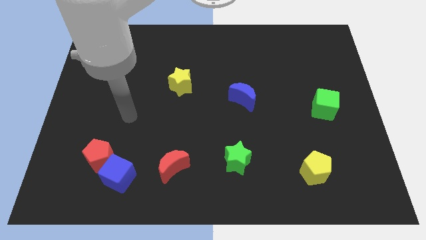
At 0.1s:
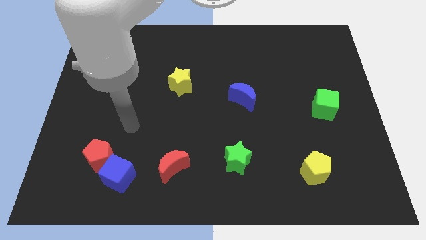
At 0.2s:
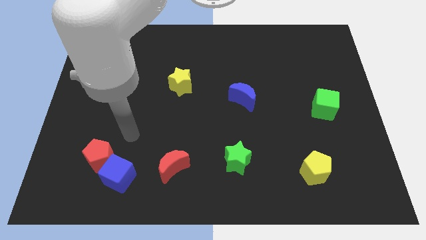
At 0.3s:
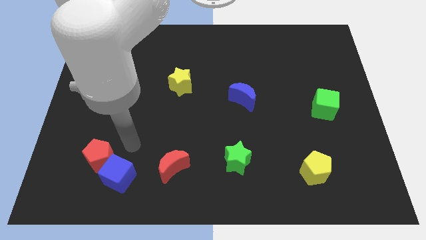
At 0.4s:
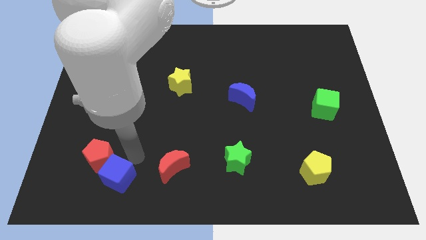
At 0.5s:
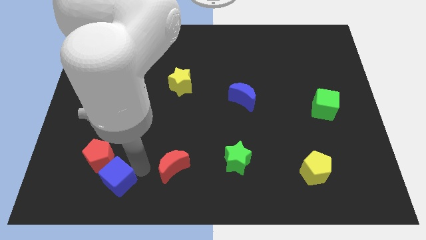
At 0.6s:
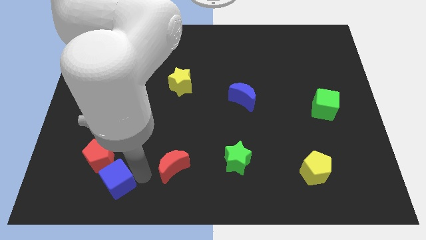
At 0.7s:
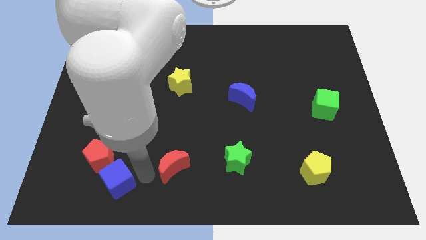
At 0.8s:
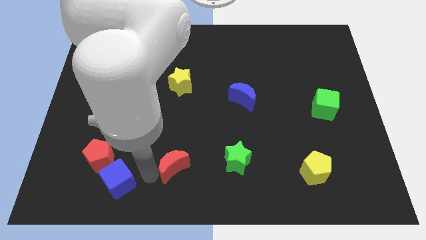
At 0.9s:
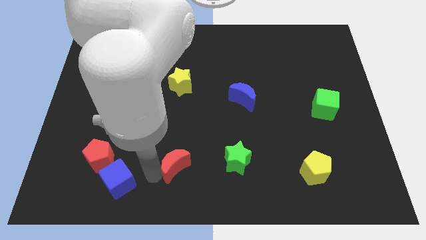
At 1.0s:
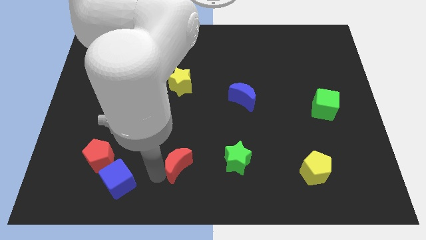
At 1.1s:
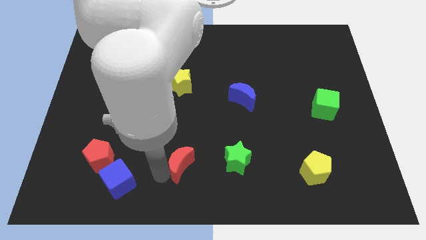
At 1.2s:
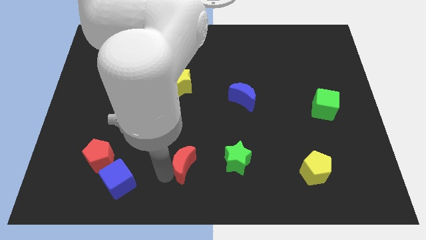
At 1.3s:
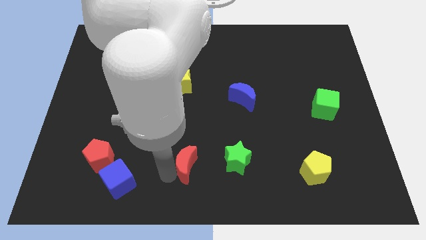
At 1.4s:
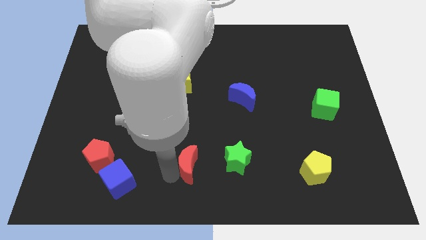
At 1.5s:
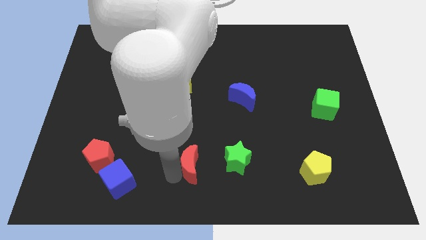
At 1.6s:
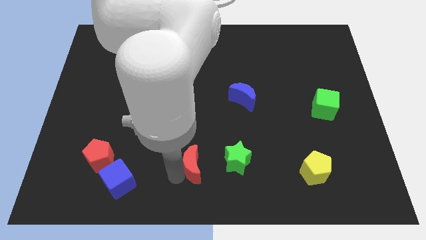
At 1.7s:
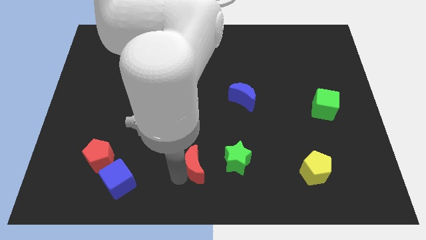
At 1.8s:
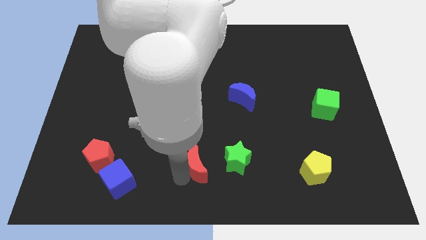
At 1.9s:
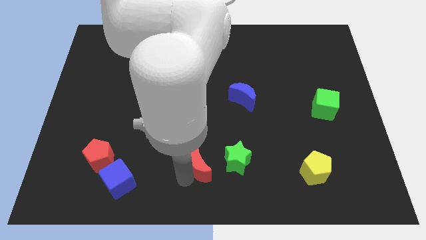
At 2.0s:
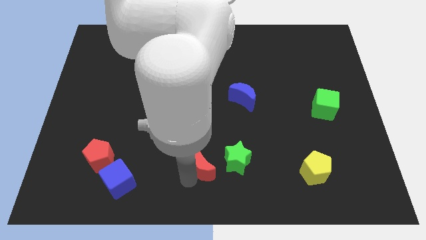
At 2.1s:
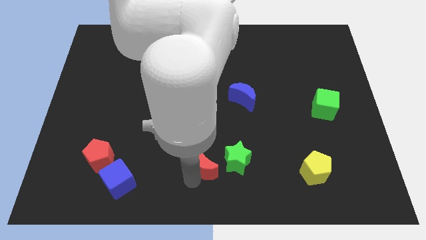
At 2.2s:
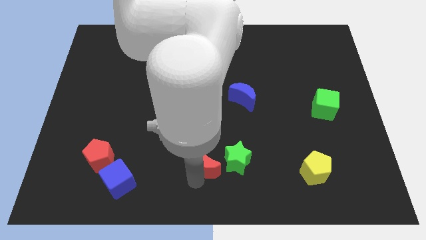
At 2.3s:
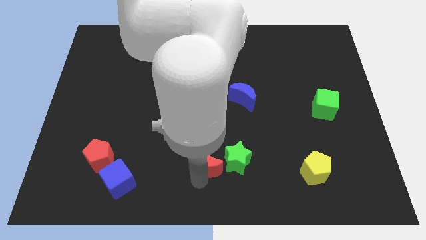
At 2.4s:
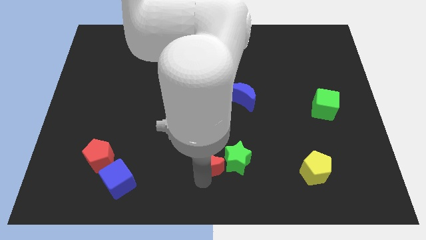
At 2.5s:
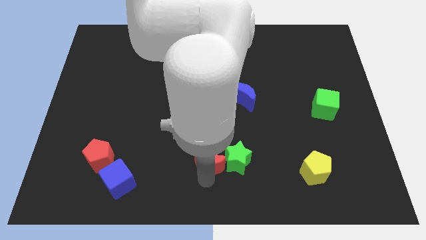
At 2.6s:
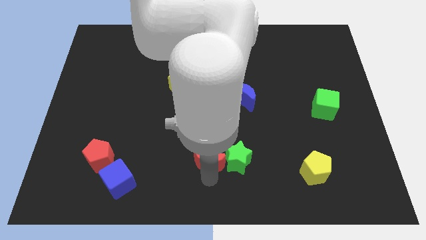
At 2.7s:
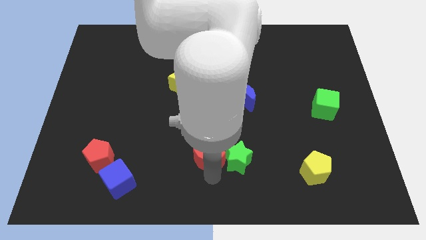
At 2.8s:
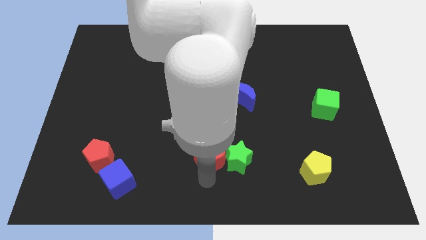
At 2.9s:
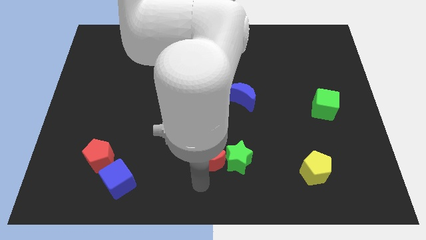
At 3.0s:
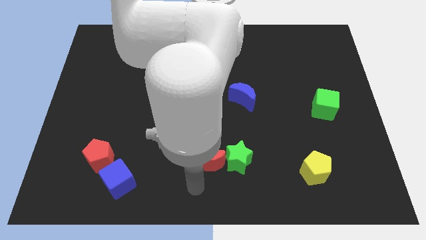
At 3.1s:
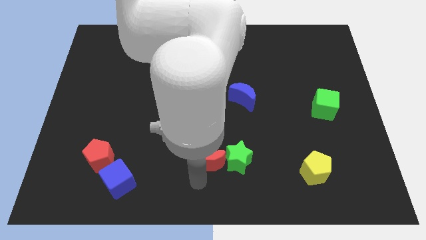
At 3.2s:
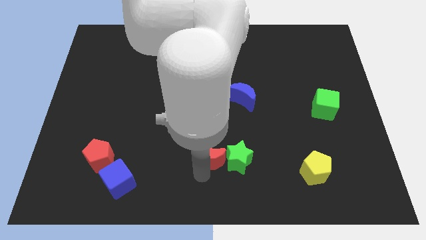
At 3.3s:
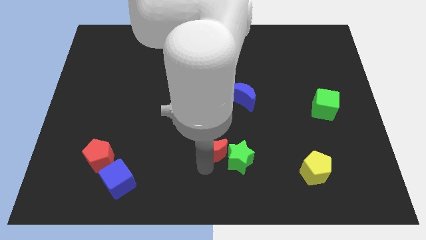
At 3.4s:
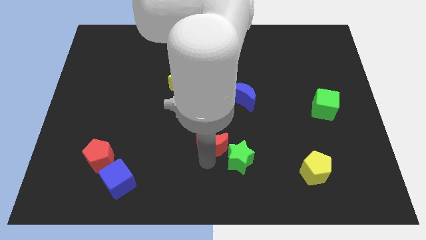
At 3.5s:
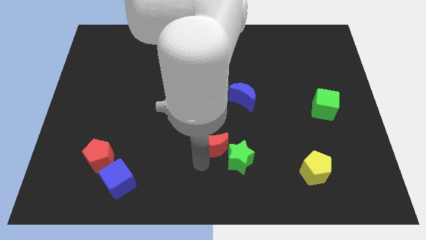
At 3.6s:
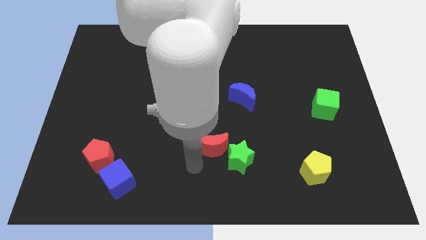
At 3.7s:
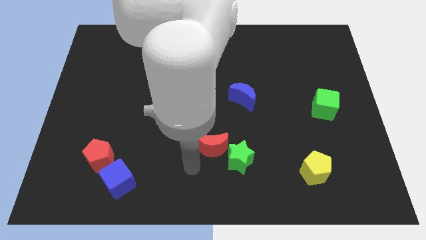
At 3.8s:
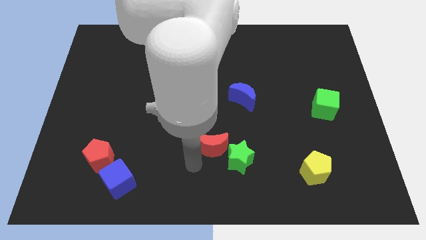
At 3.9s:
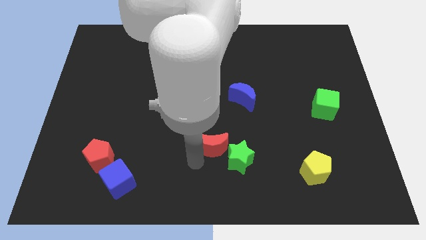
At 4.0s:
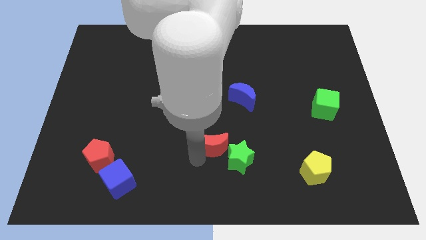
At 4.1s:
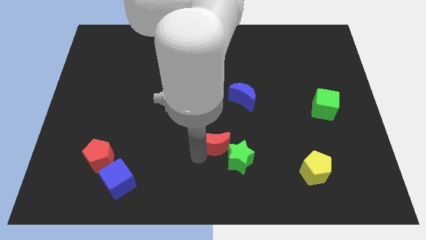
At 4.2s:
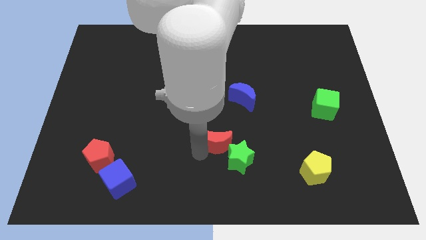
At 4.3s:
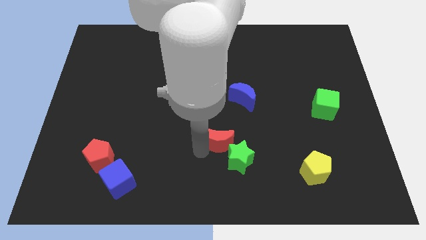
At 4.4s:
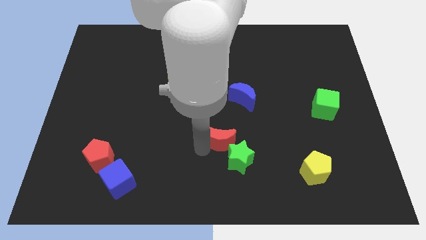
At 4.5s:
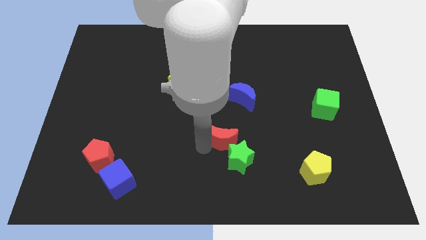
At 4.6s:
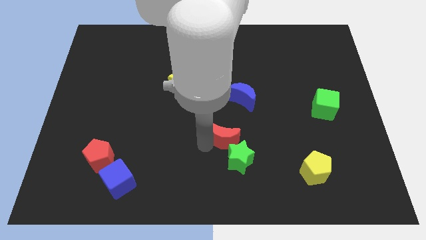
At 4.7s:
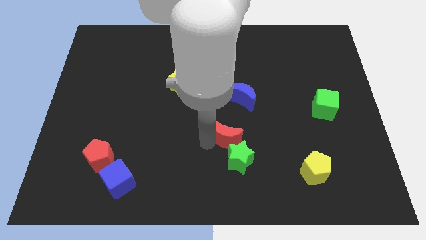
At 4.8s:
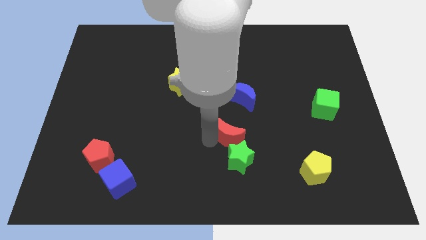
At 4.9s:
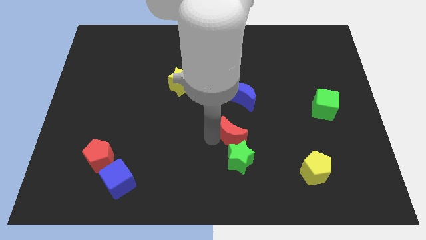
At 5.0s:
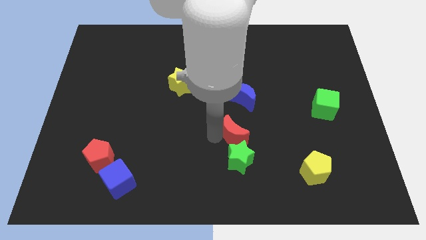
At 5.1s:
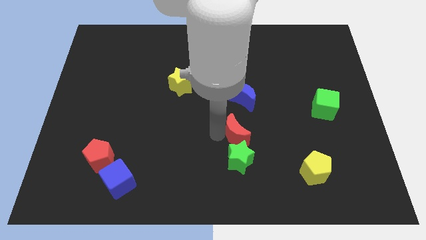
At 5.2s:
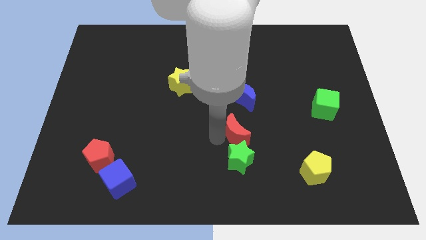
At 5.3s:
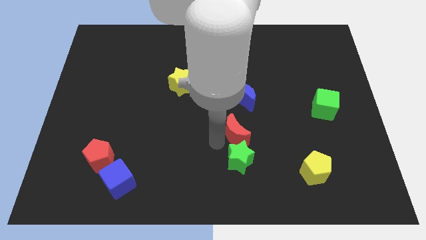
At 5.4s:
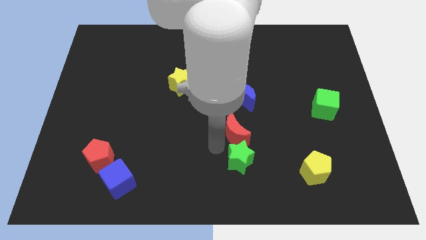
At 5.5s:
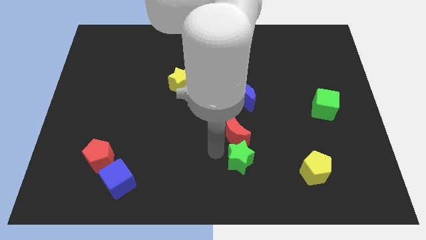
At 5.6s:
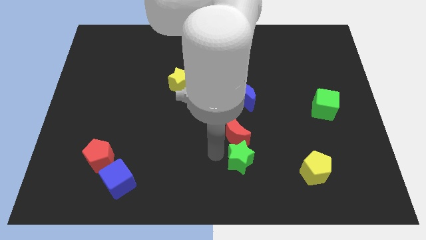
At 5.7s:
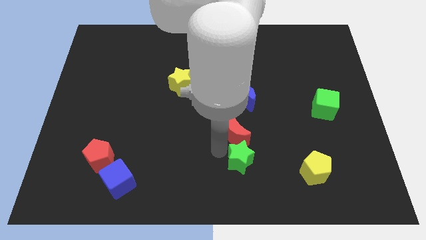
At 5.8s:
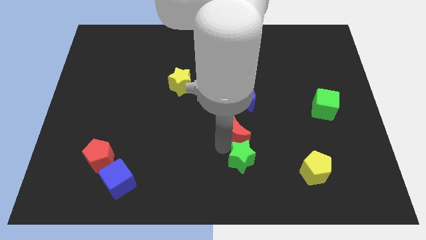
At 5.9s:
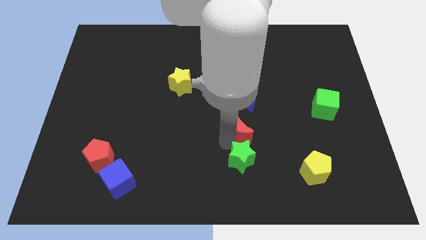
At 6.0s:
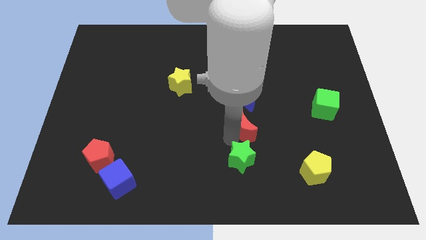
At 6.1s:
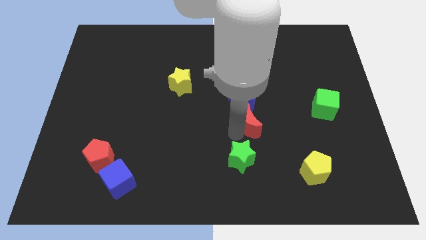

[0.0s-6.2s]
put the red moon to the bottom right side of the blue moon

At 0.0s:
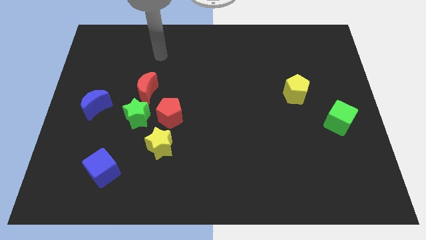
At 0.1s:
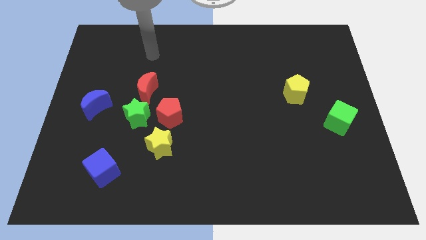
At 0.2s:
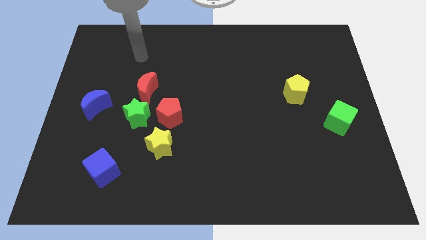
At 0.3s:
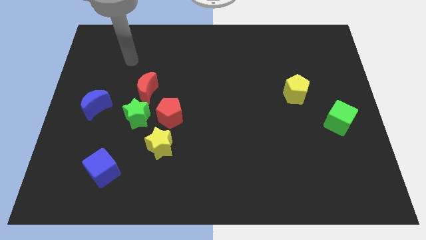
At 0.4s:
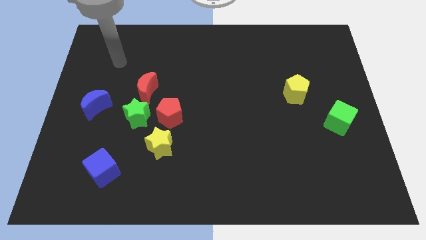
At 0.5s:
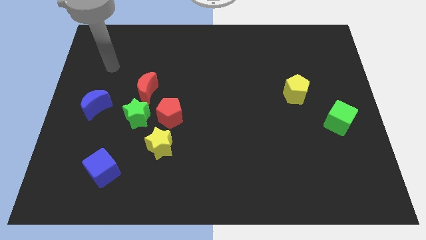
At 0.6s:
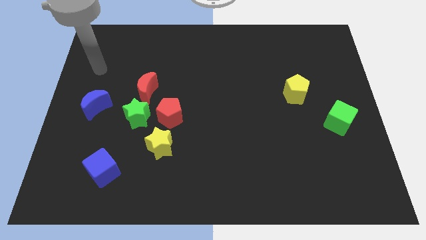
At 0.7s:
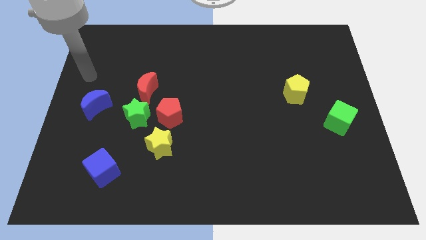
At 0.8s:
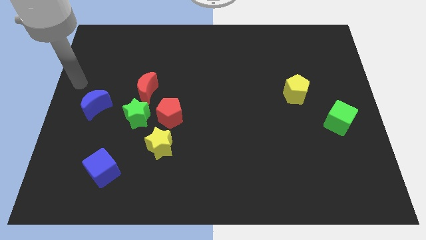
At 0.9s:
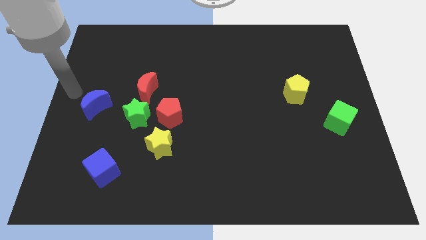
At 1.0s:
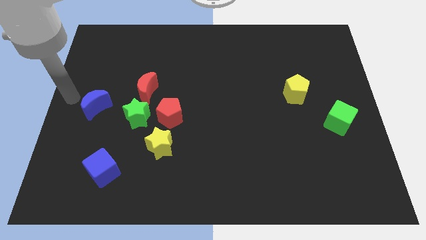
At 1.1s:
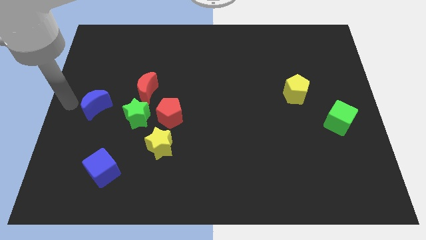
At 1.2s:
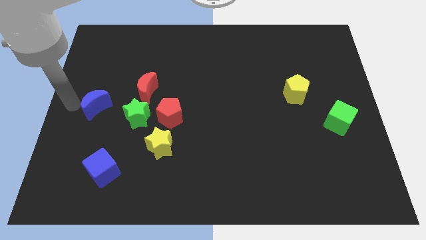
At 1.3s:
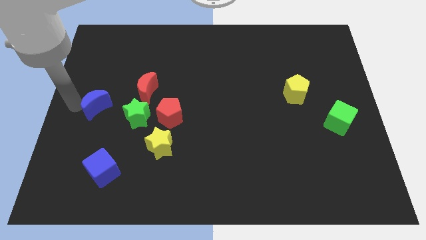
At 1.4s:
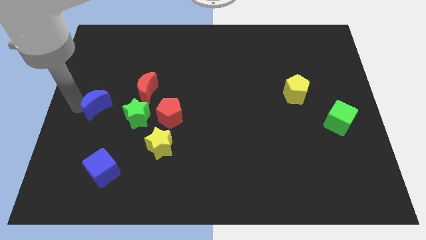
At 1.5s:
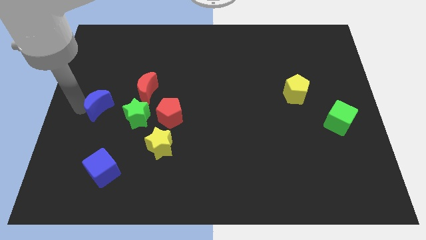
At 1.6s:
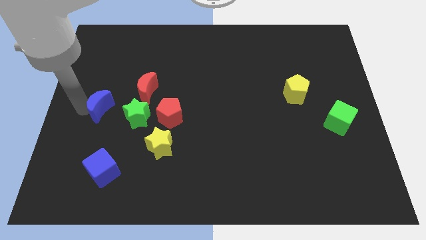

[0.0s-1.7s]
slide the blue moon to the bottom left of the red moon
